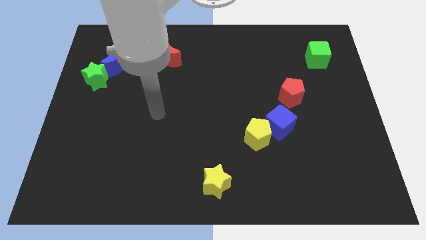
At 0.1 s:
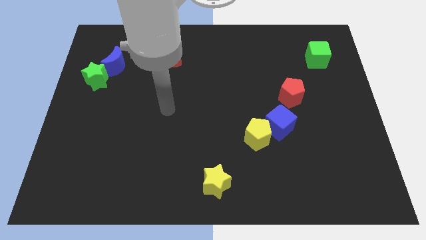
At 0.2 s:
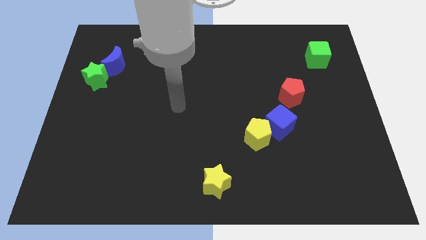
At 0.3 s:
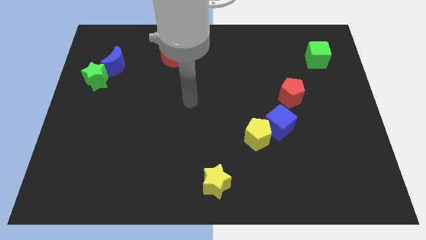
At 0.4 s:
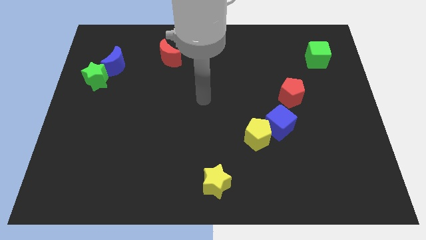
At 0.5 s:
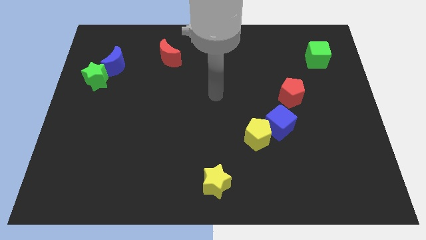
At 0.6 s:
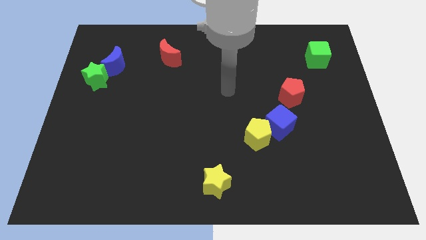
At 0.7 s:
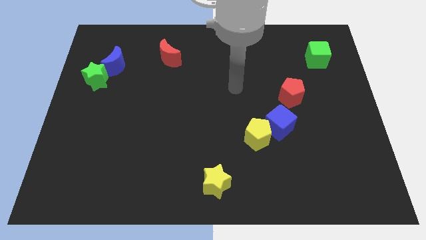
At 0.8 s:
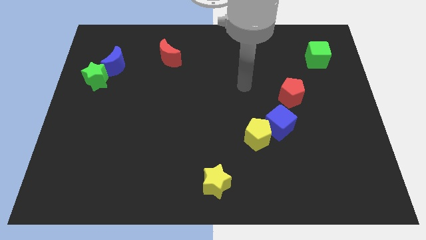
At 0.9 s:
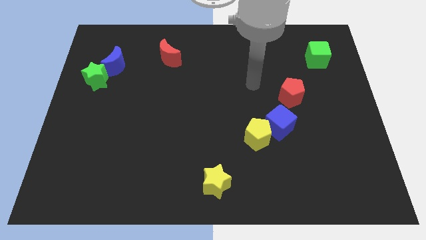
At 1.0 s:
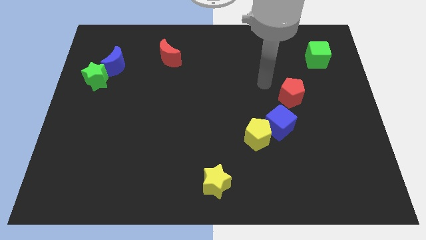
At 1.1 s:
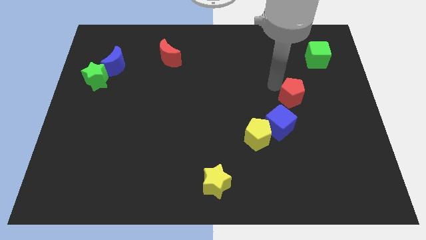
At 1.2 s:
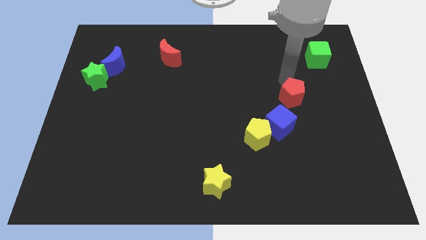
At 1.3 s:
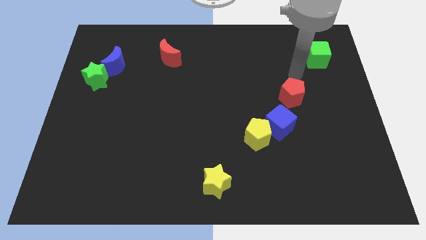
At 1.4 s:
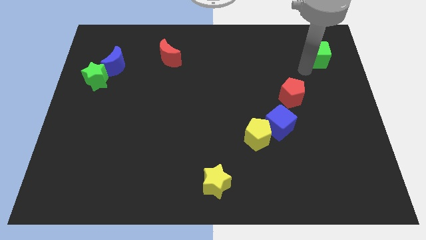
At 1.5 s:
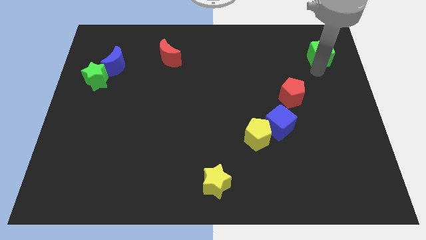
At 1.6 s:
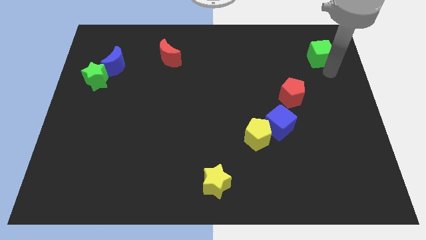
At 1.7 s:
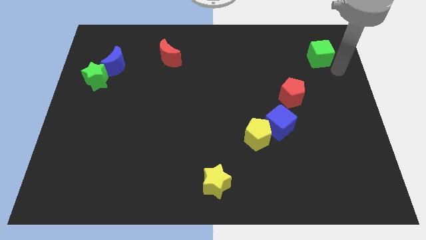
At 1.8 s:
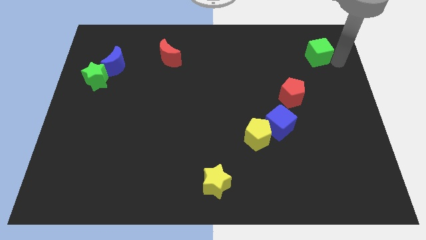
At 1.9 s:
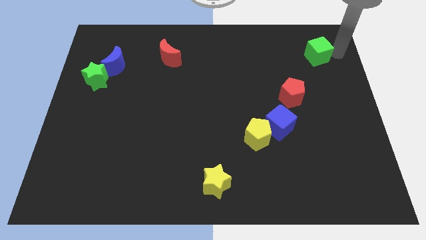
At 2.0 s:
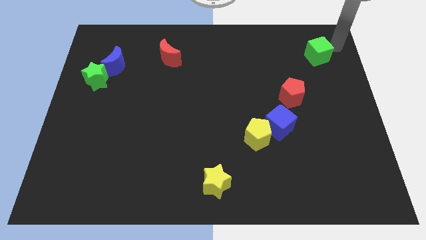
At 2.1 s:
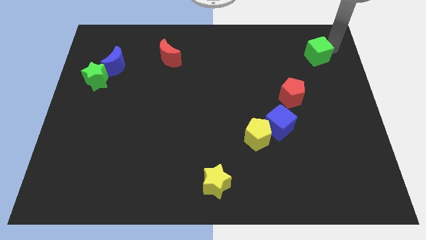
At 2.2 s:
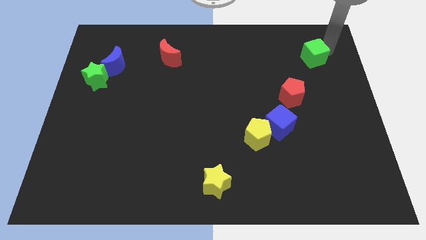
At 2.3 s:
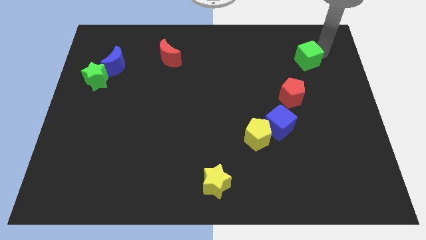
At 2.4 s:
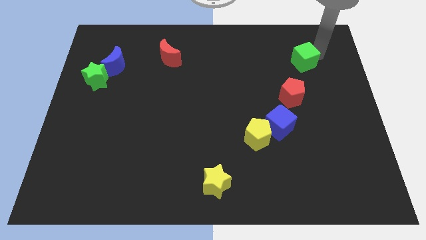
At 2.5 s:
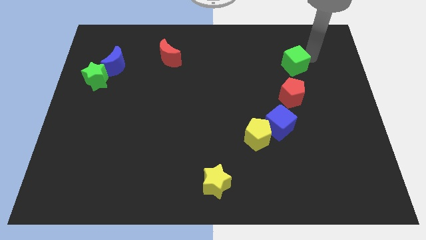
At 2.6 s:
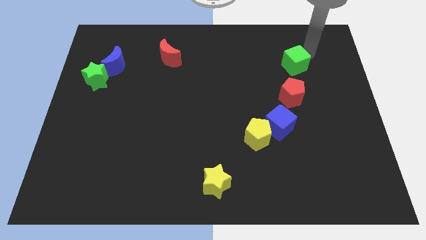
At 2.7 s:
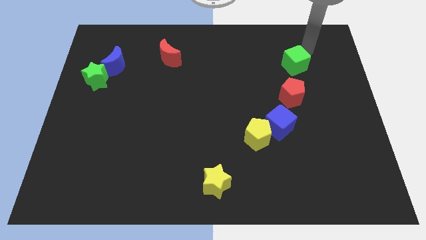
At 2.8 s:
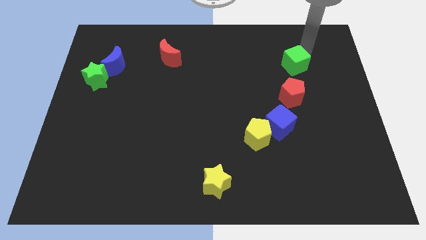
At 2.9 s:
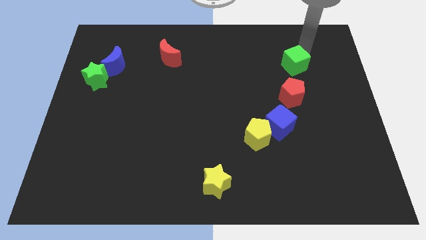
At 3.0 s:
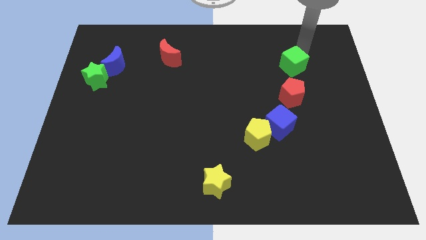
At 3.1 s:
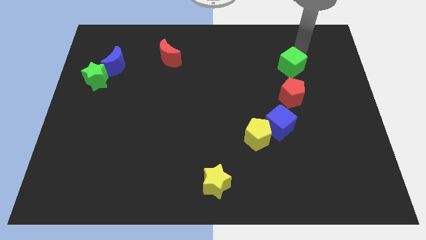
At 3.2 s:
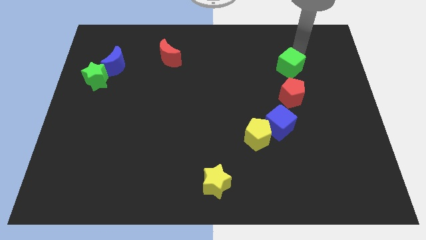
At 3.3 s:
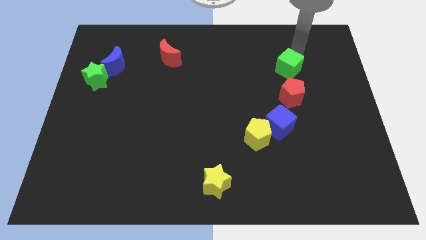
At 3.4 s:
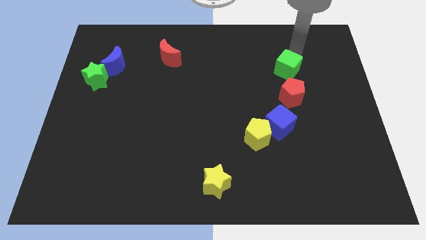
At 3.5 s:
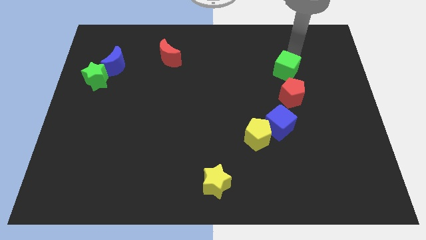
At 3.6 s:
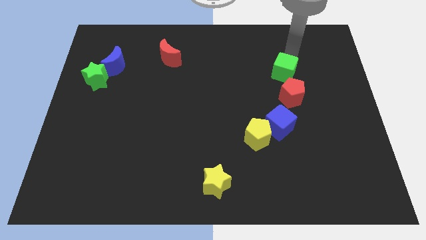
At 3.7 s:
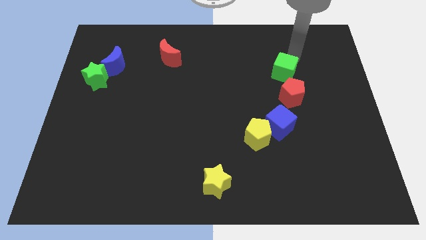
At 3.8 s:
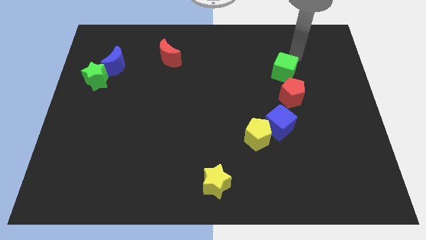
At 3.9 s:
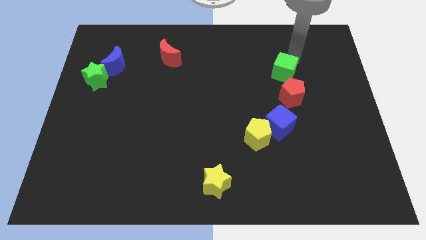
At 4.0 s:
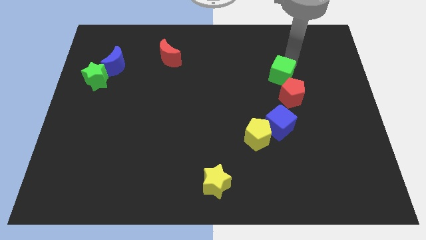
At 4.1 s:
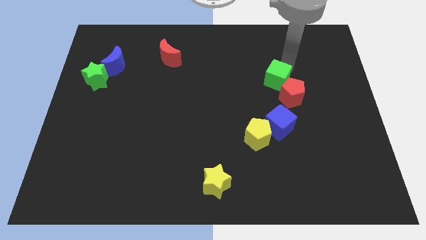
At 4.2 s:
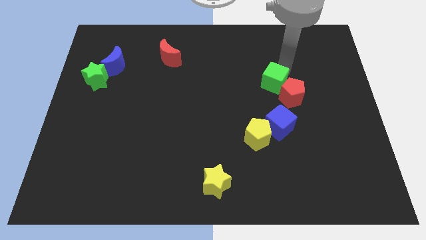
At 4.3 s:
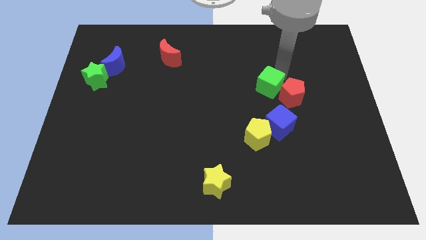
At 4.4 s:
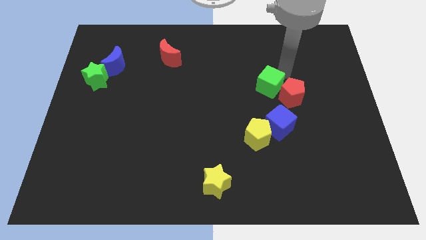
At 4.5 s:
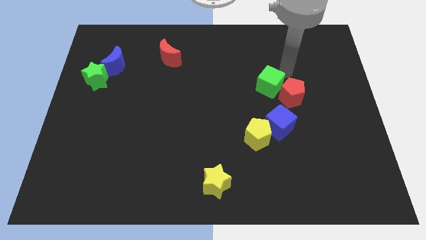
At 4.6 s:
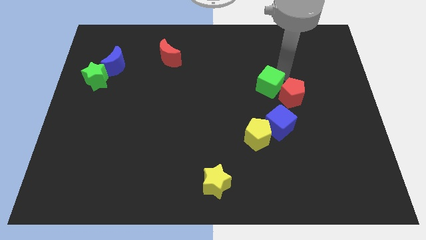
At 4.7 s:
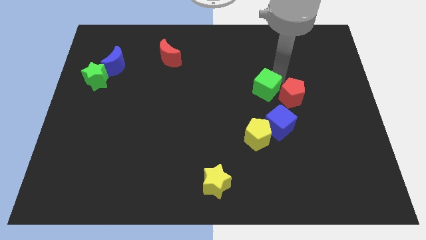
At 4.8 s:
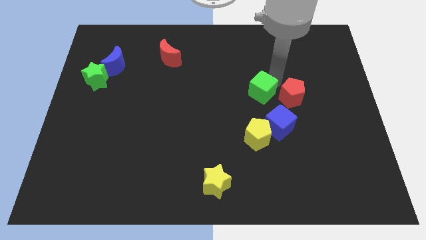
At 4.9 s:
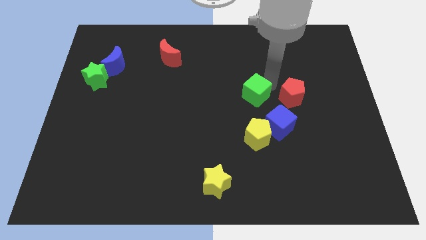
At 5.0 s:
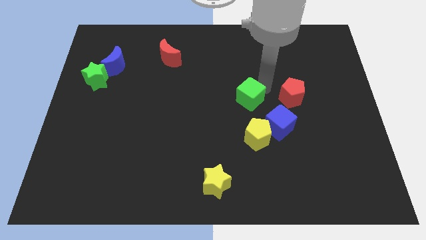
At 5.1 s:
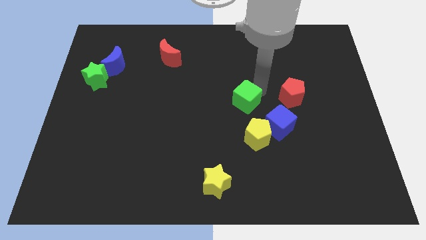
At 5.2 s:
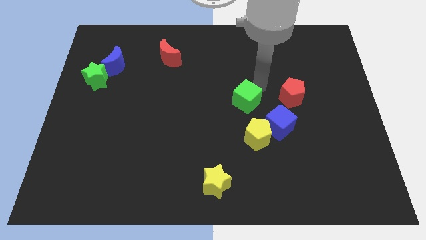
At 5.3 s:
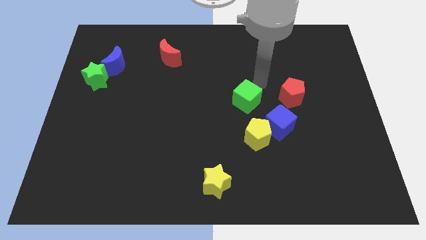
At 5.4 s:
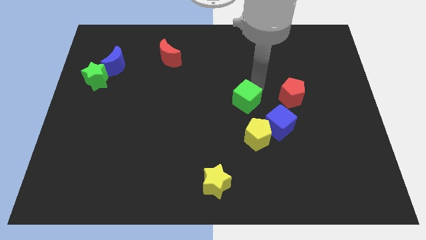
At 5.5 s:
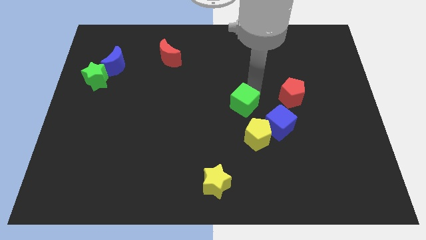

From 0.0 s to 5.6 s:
move the green cube to the top left side of the yellow pentagon

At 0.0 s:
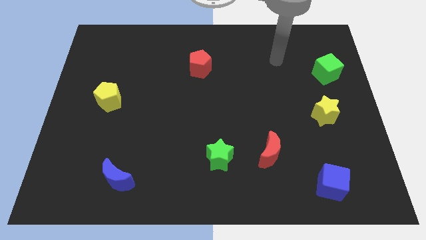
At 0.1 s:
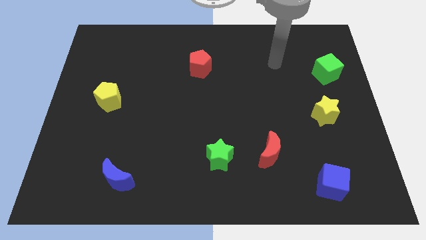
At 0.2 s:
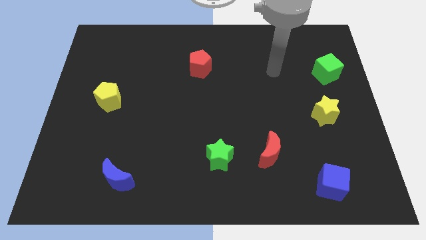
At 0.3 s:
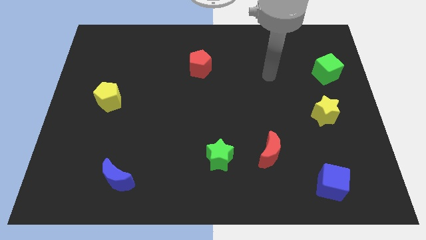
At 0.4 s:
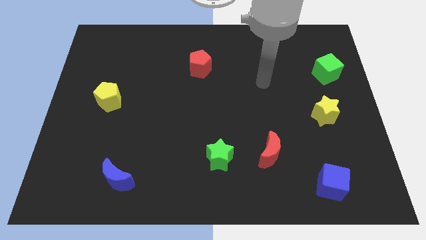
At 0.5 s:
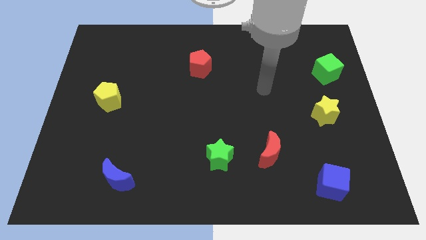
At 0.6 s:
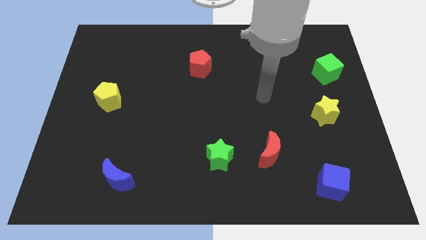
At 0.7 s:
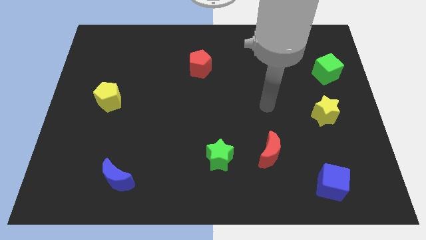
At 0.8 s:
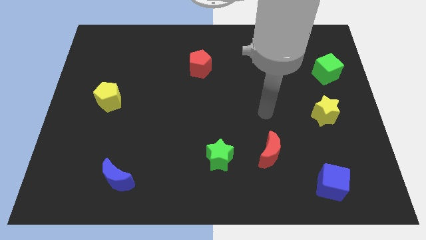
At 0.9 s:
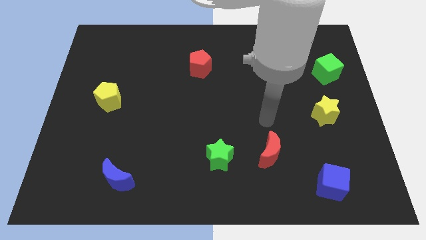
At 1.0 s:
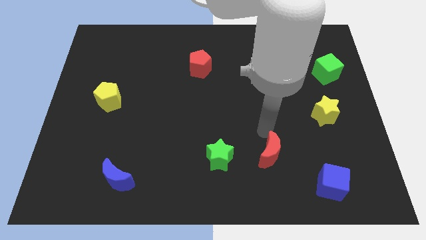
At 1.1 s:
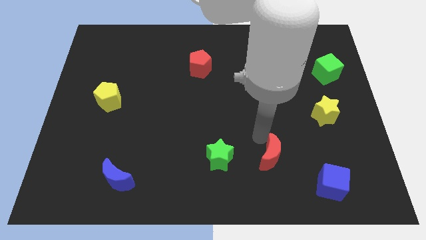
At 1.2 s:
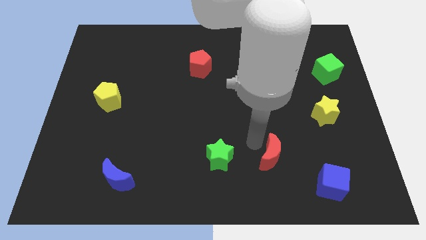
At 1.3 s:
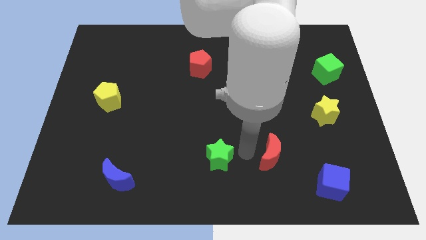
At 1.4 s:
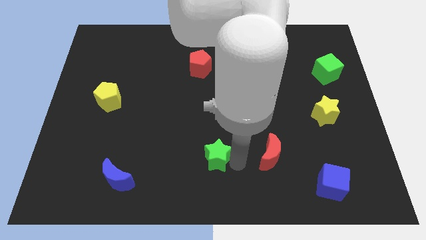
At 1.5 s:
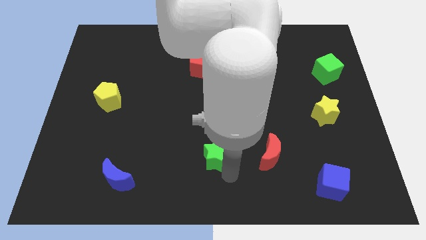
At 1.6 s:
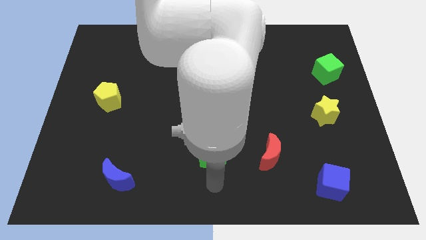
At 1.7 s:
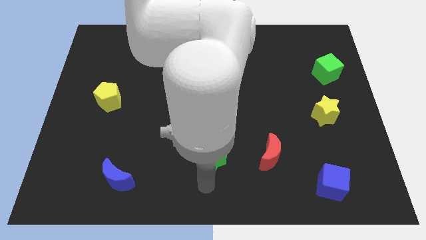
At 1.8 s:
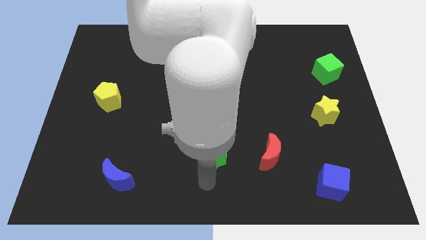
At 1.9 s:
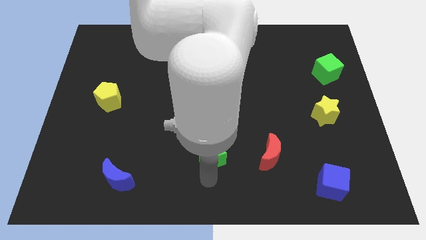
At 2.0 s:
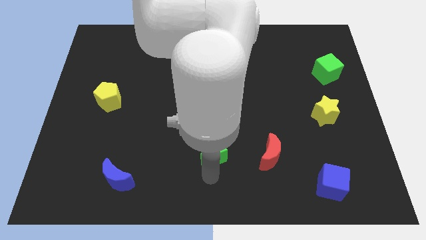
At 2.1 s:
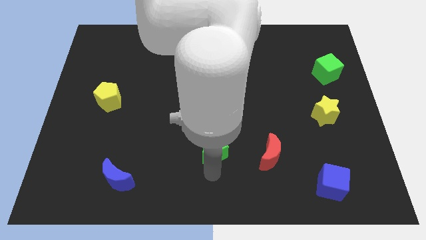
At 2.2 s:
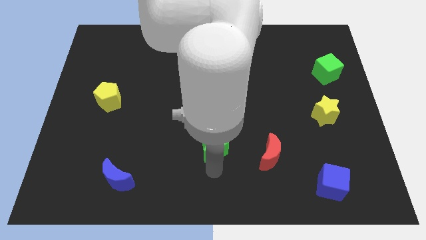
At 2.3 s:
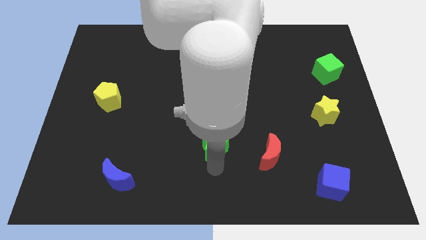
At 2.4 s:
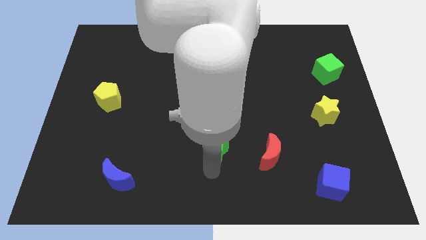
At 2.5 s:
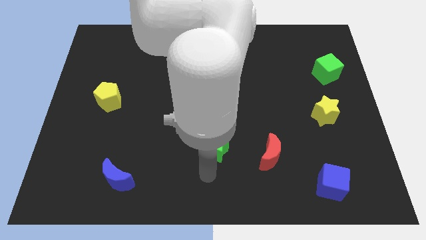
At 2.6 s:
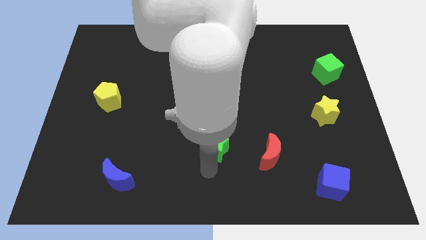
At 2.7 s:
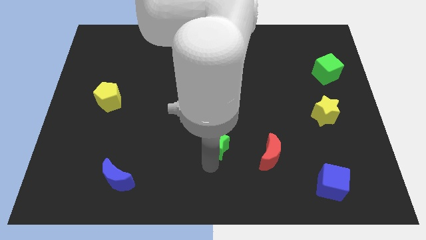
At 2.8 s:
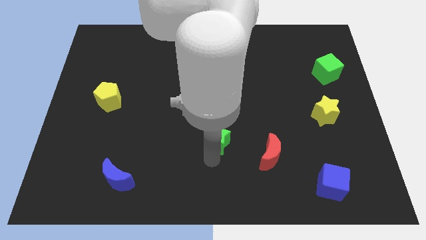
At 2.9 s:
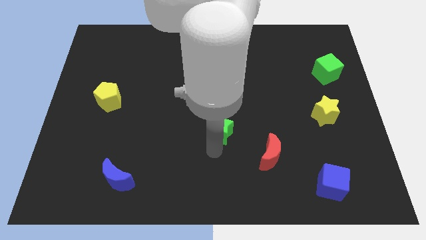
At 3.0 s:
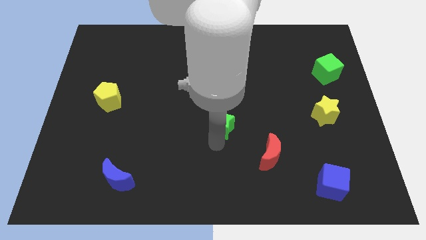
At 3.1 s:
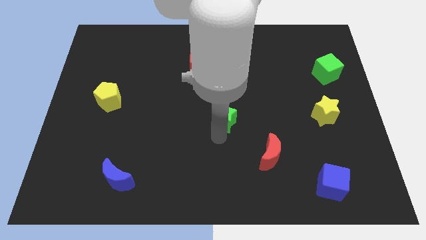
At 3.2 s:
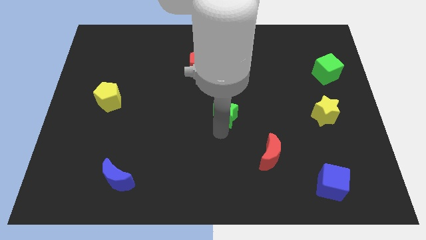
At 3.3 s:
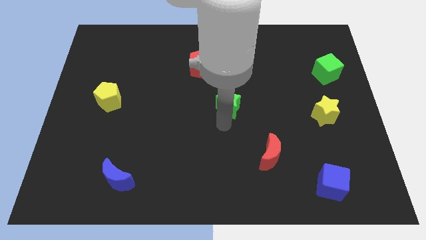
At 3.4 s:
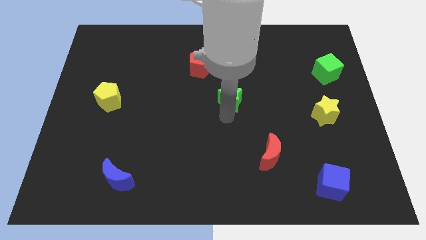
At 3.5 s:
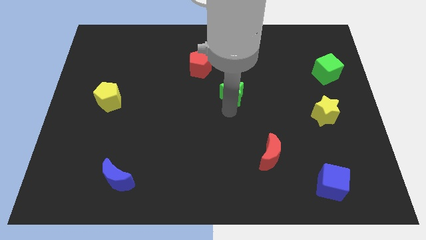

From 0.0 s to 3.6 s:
put the green star to the bottom right of the red pentagon
